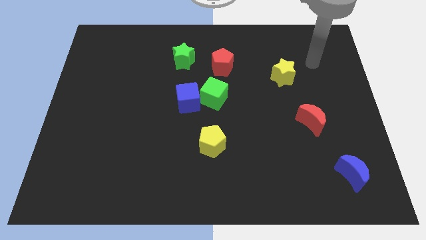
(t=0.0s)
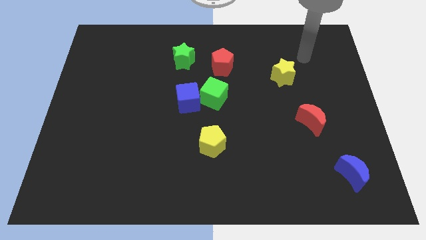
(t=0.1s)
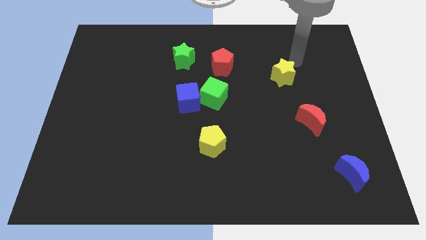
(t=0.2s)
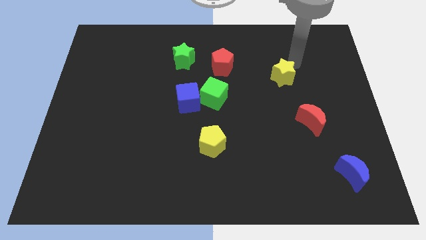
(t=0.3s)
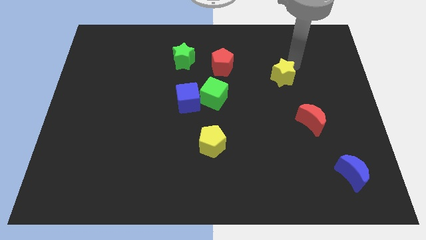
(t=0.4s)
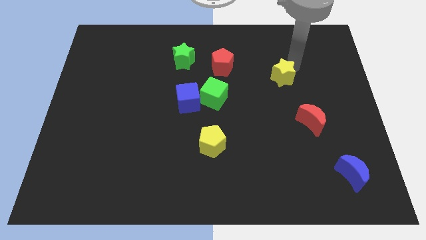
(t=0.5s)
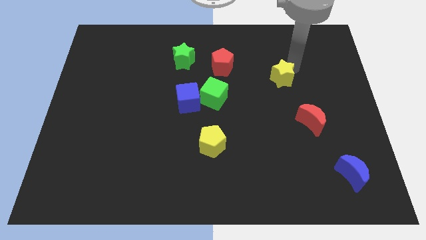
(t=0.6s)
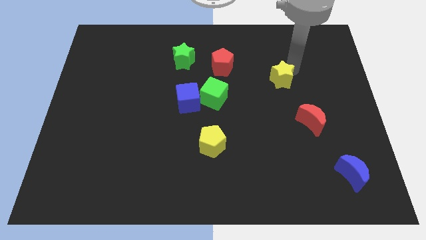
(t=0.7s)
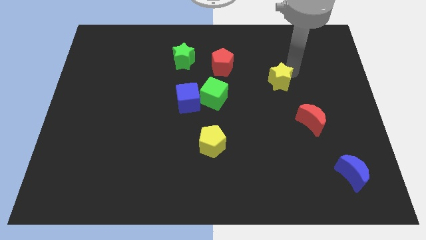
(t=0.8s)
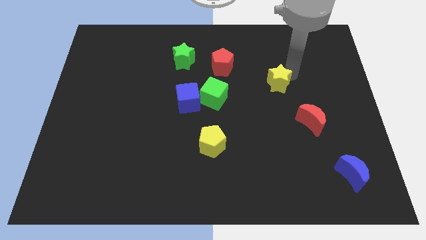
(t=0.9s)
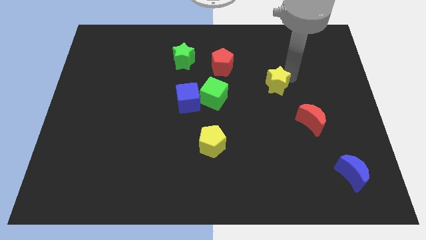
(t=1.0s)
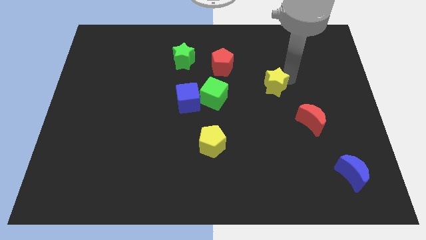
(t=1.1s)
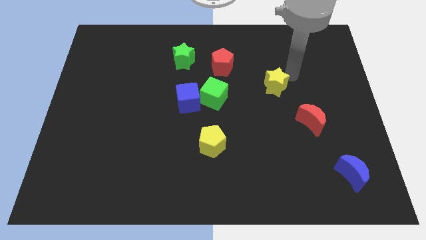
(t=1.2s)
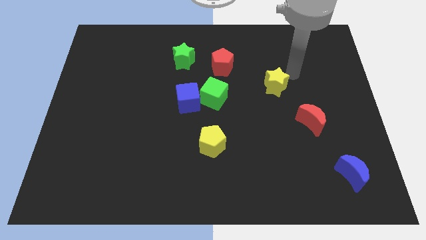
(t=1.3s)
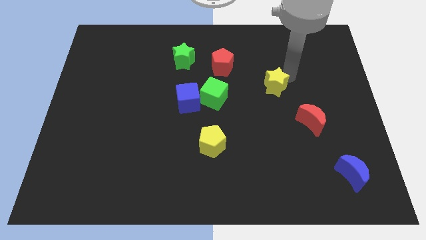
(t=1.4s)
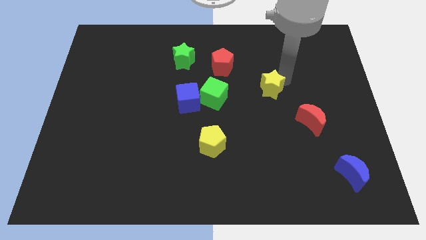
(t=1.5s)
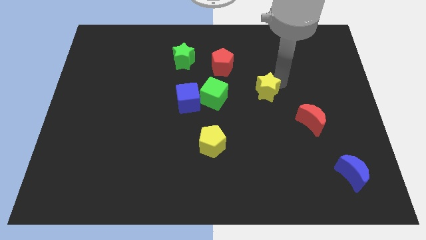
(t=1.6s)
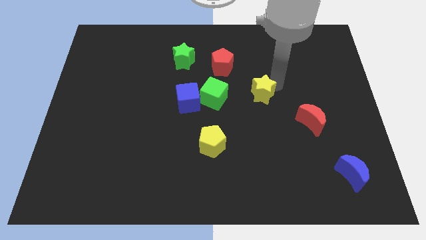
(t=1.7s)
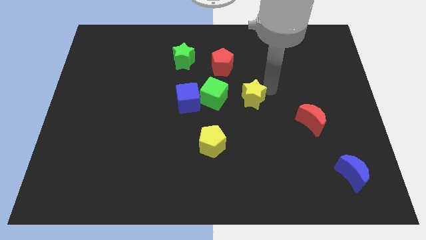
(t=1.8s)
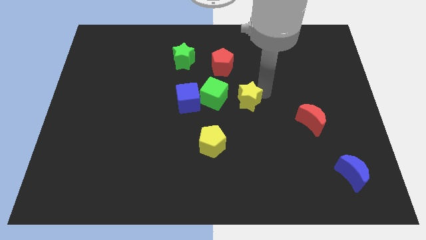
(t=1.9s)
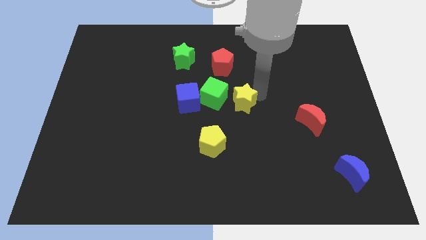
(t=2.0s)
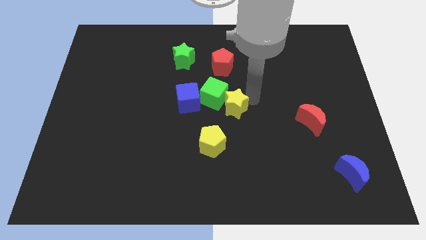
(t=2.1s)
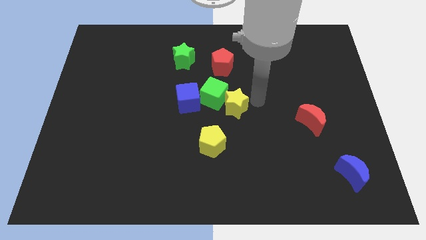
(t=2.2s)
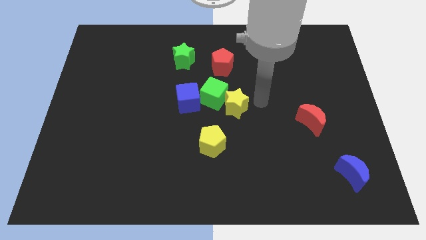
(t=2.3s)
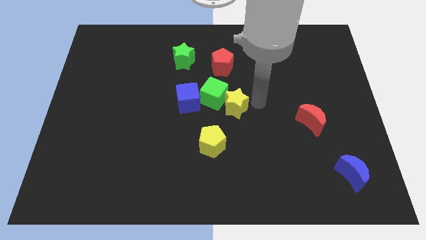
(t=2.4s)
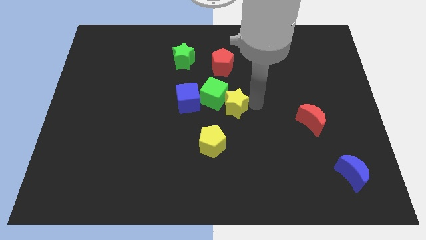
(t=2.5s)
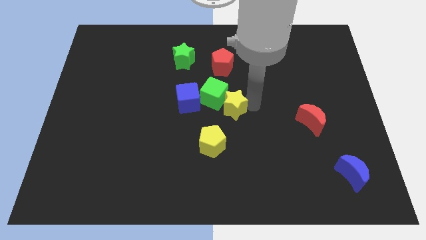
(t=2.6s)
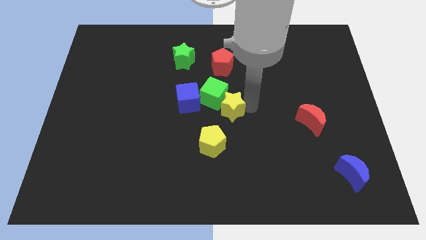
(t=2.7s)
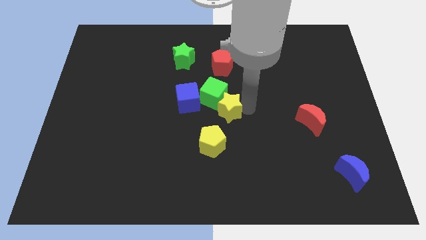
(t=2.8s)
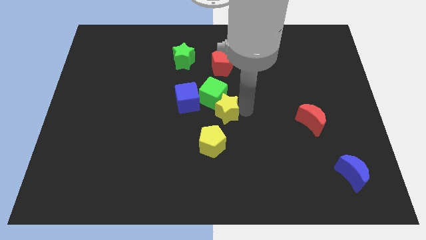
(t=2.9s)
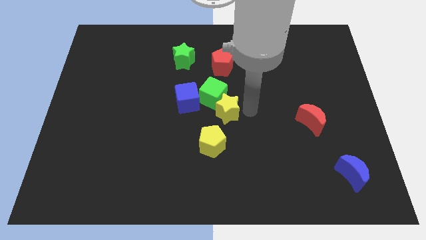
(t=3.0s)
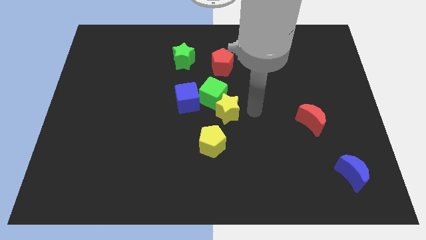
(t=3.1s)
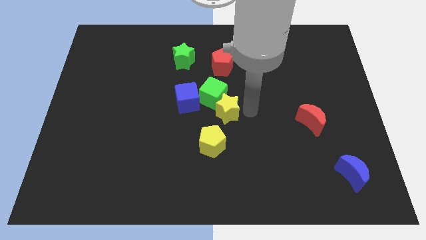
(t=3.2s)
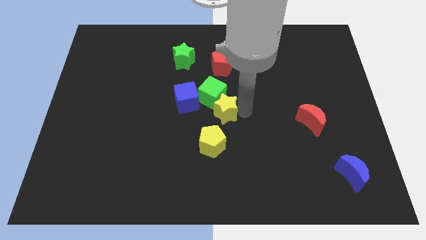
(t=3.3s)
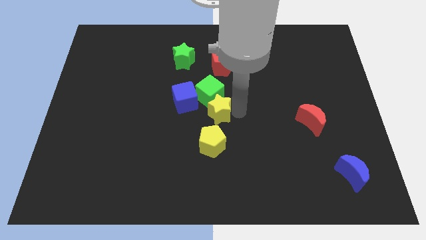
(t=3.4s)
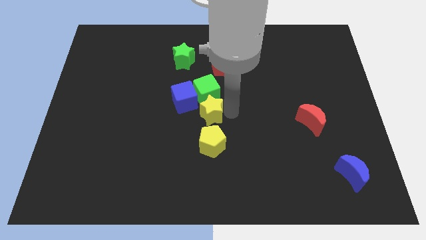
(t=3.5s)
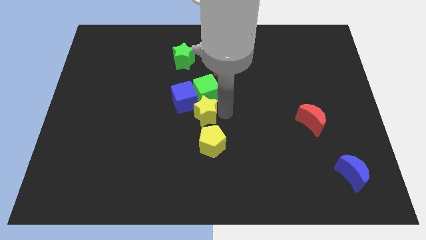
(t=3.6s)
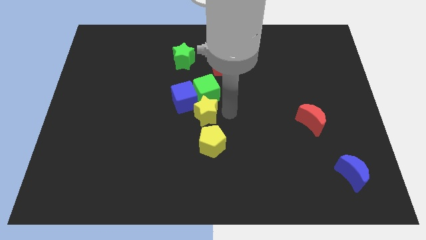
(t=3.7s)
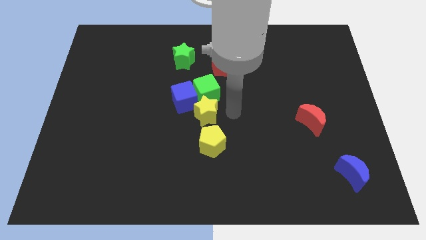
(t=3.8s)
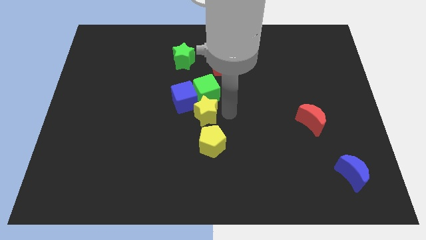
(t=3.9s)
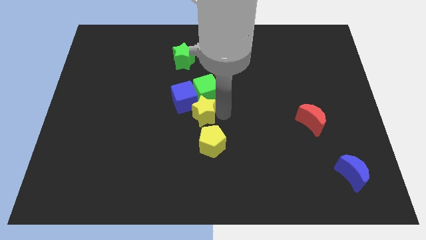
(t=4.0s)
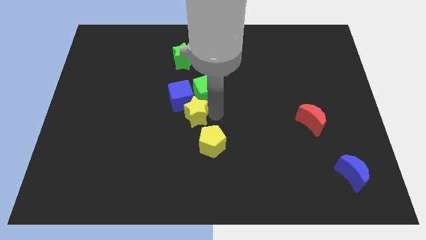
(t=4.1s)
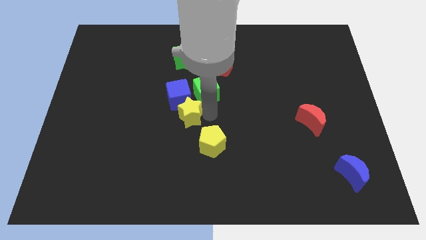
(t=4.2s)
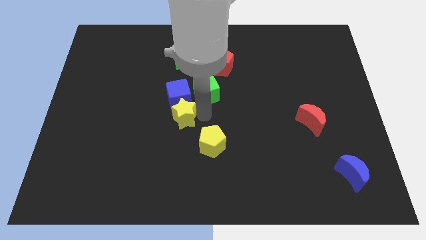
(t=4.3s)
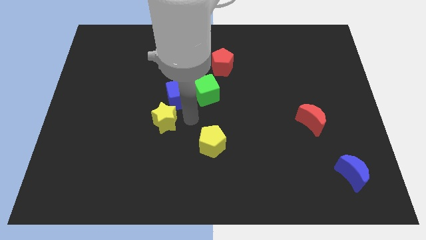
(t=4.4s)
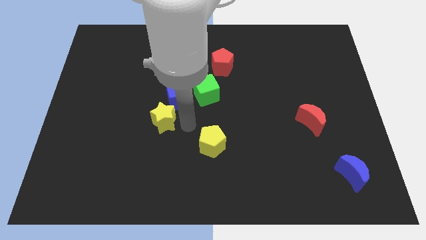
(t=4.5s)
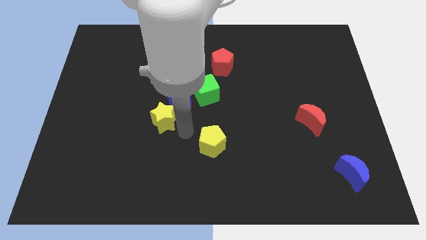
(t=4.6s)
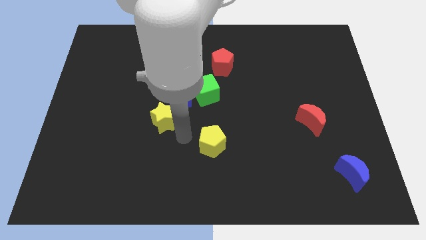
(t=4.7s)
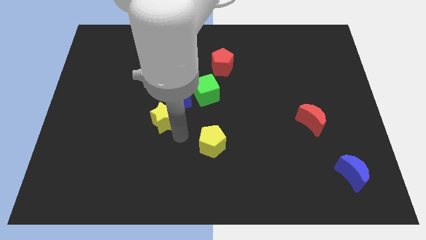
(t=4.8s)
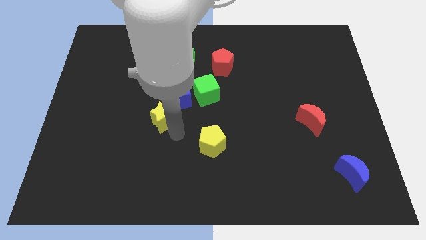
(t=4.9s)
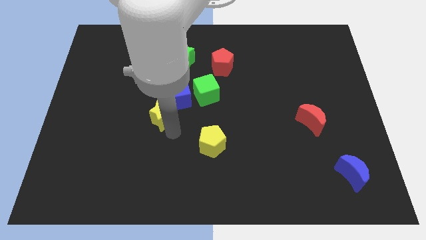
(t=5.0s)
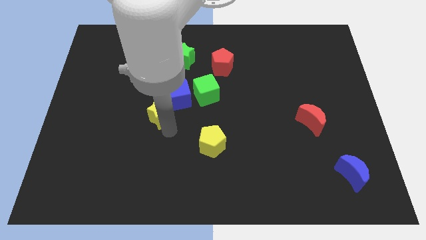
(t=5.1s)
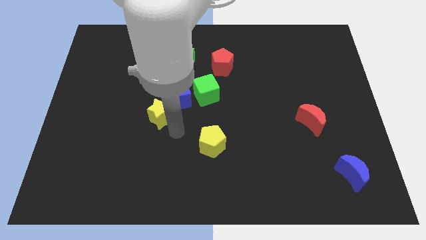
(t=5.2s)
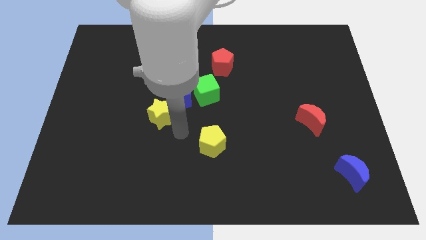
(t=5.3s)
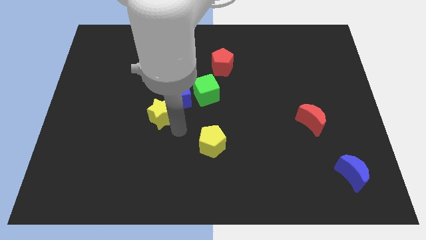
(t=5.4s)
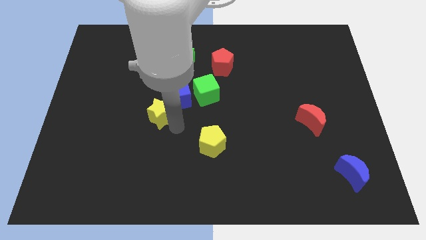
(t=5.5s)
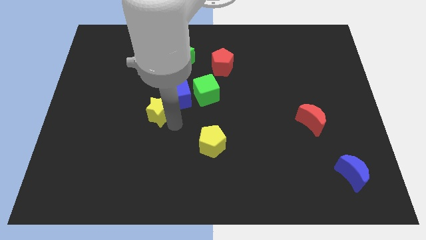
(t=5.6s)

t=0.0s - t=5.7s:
slide the yellow star to the left of the blue cube

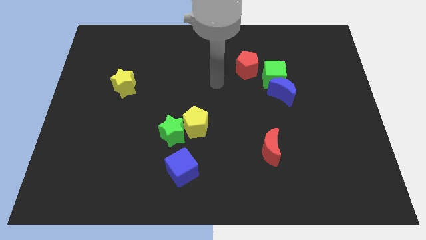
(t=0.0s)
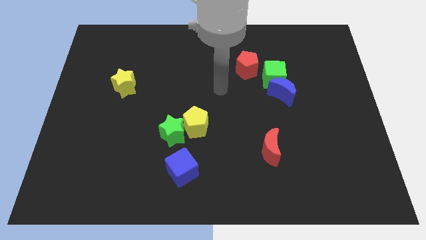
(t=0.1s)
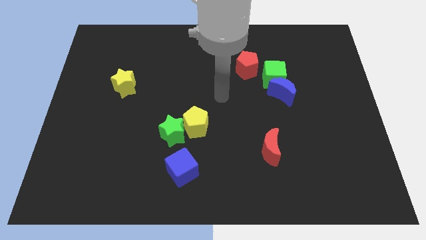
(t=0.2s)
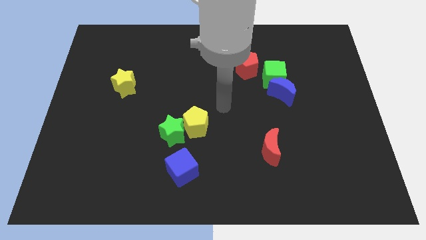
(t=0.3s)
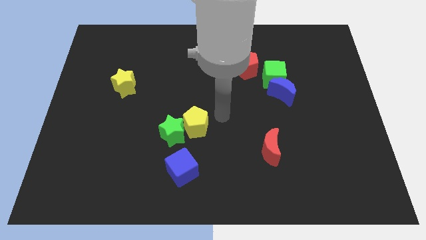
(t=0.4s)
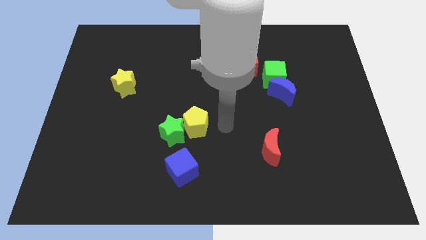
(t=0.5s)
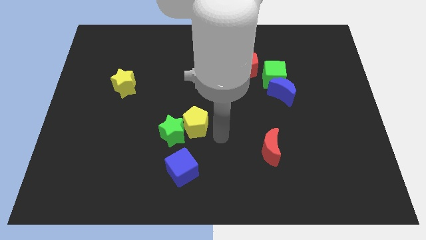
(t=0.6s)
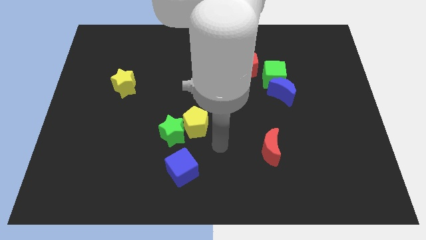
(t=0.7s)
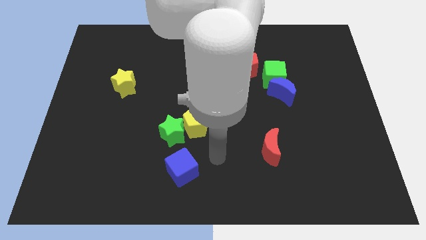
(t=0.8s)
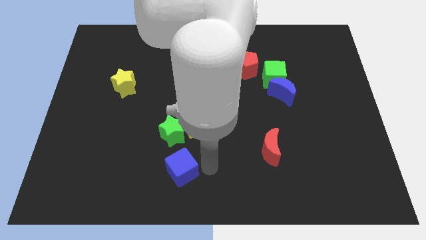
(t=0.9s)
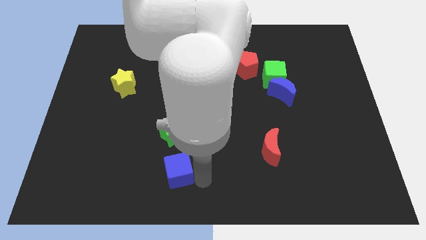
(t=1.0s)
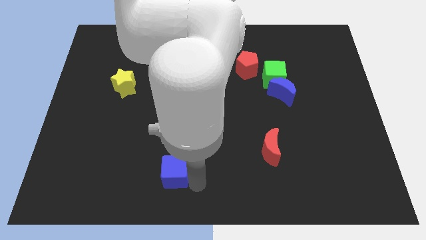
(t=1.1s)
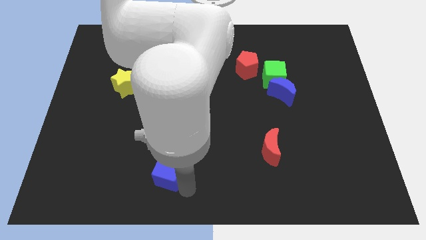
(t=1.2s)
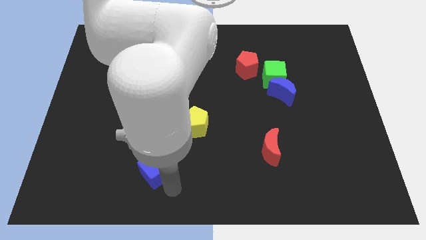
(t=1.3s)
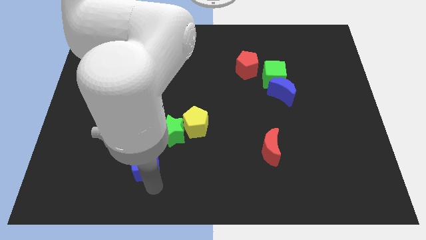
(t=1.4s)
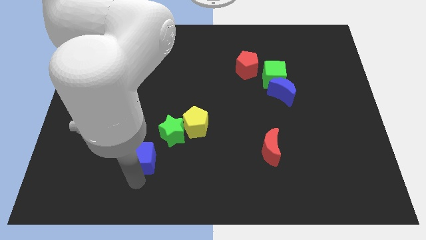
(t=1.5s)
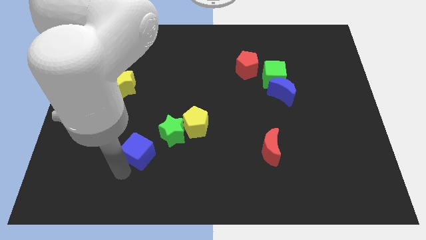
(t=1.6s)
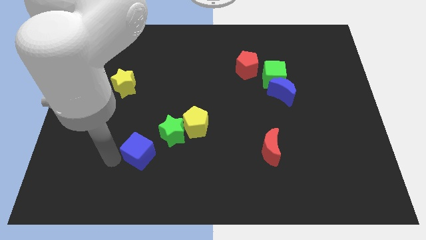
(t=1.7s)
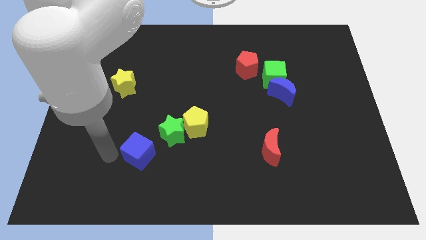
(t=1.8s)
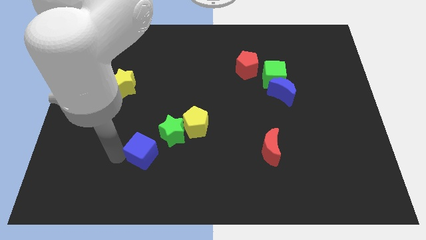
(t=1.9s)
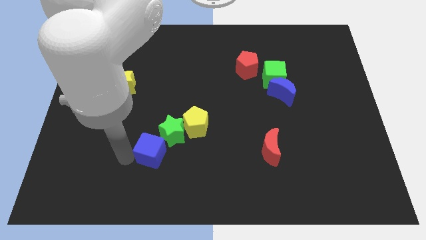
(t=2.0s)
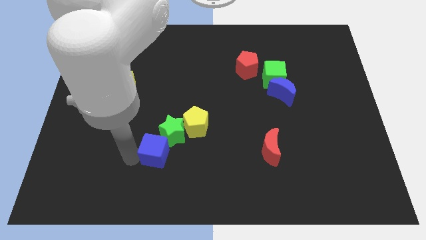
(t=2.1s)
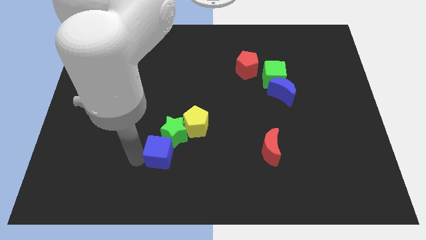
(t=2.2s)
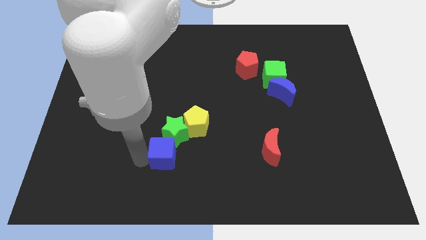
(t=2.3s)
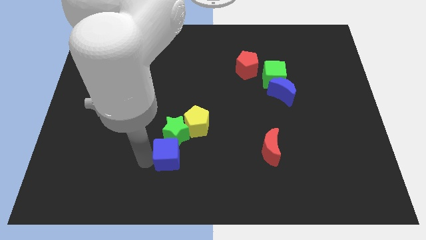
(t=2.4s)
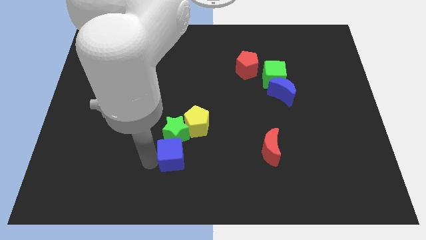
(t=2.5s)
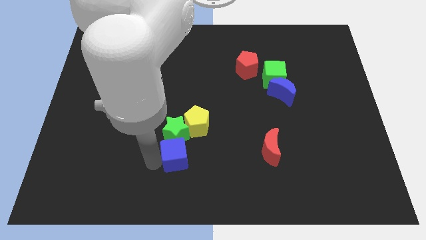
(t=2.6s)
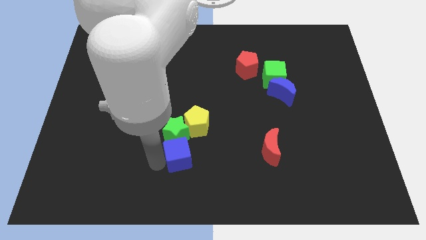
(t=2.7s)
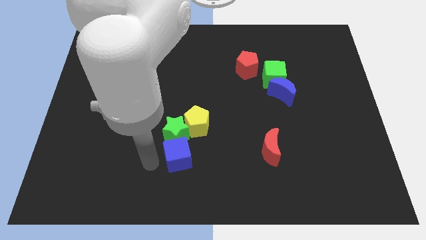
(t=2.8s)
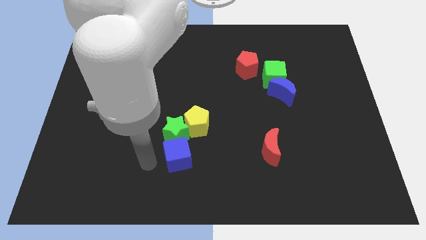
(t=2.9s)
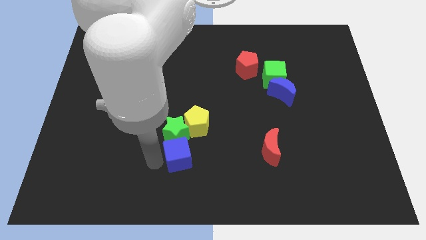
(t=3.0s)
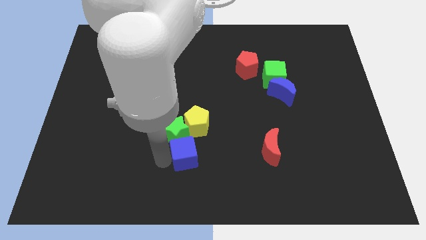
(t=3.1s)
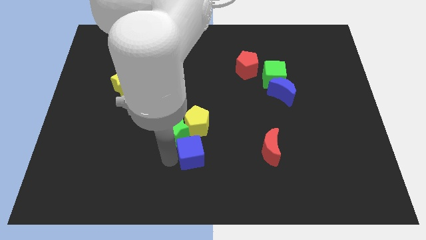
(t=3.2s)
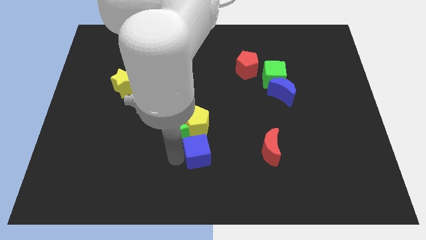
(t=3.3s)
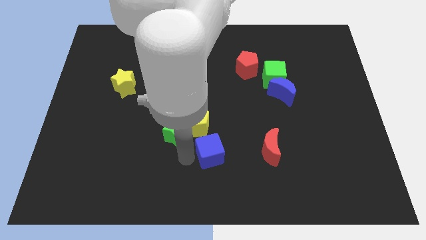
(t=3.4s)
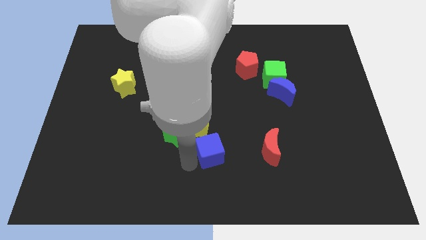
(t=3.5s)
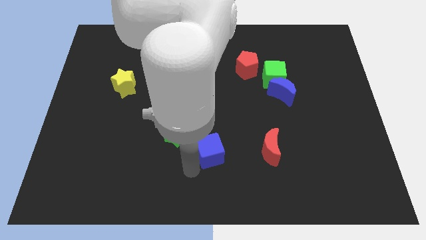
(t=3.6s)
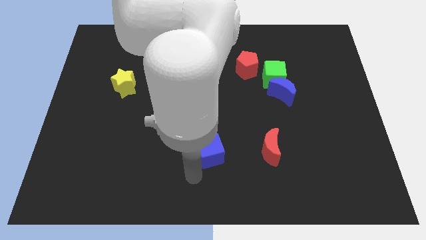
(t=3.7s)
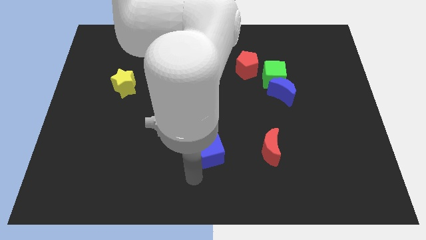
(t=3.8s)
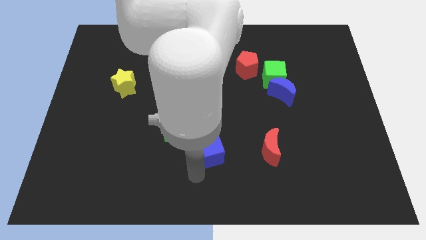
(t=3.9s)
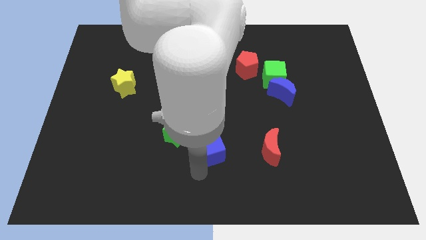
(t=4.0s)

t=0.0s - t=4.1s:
push the blue cube right of the green star
